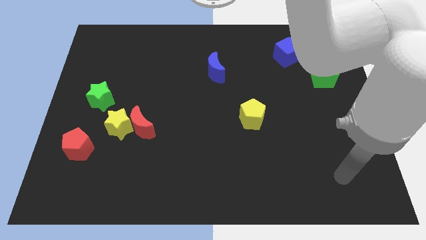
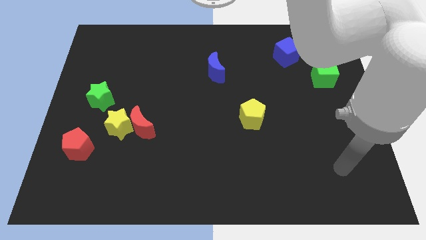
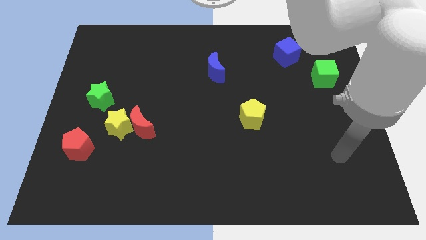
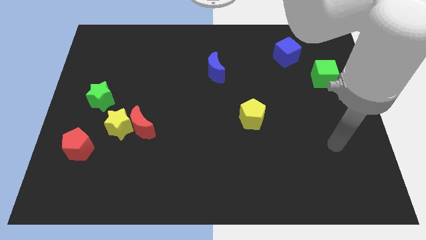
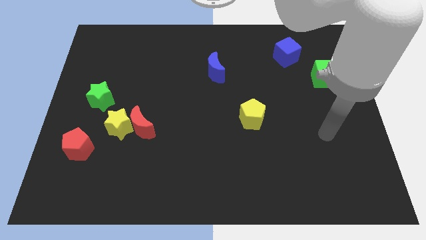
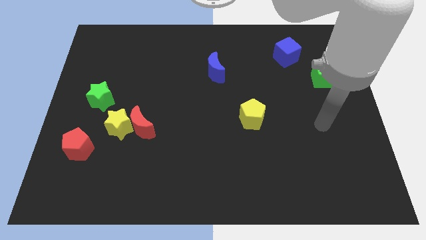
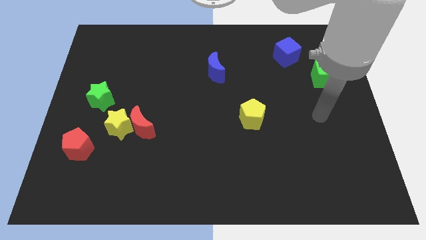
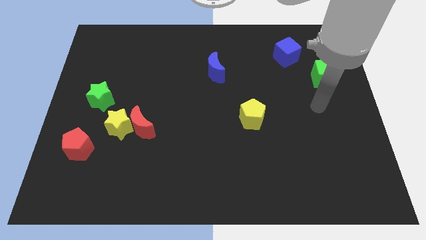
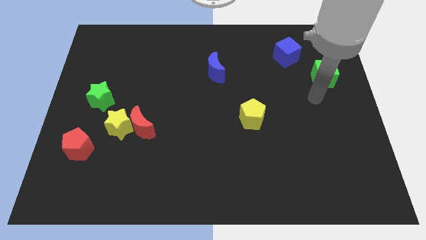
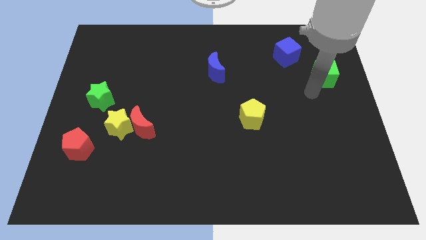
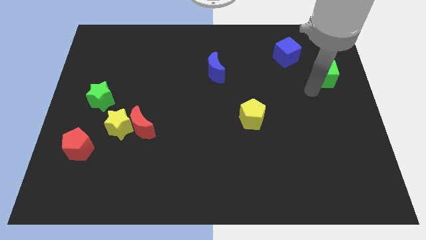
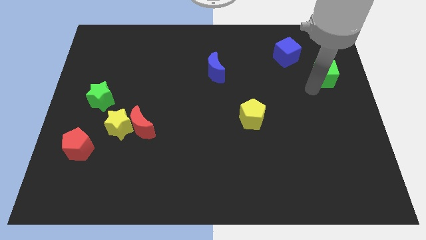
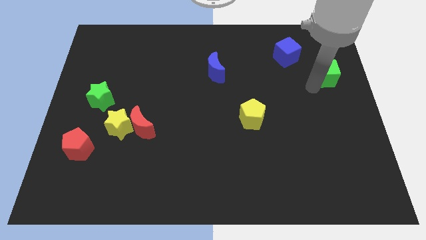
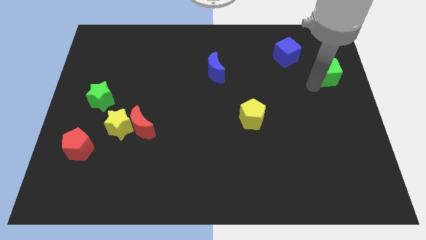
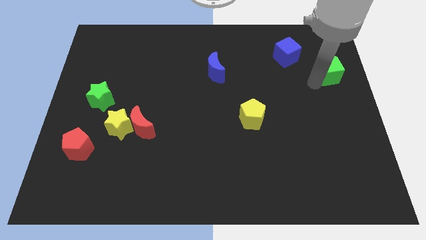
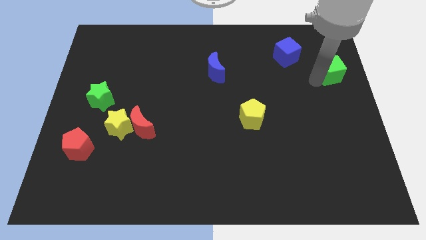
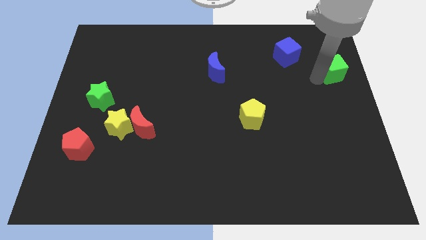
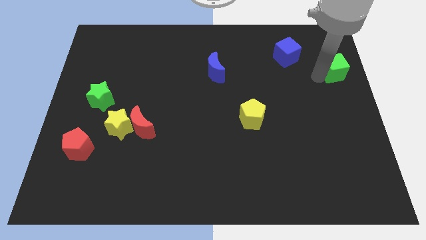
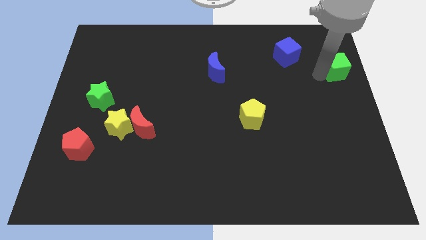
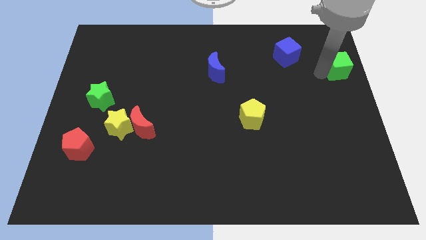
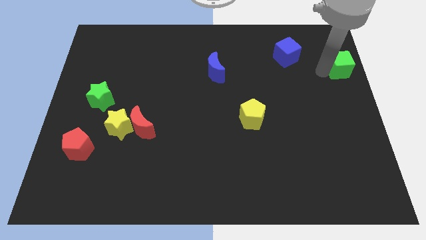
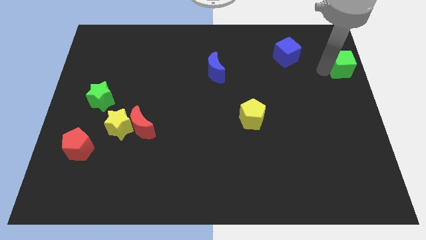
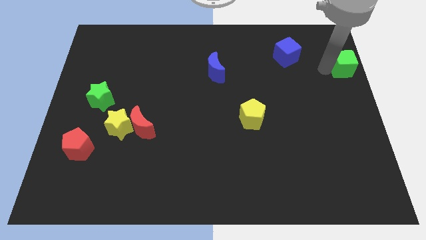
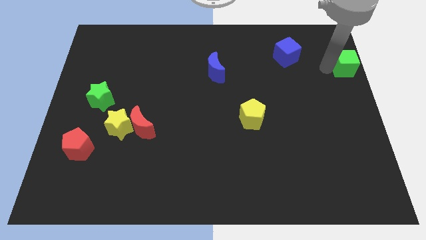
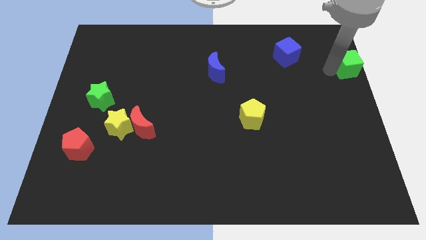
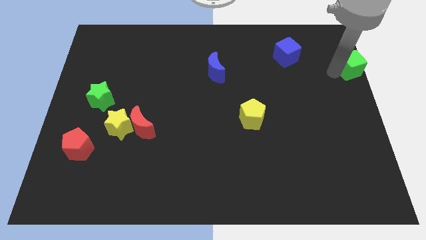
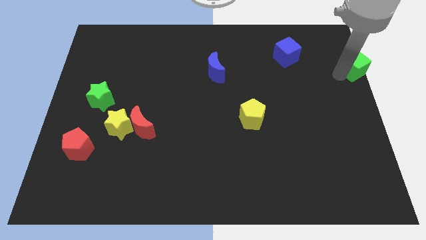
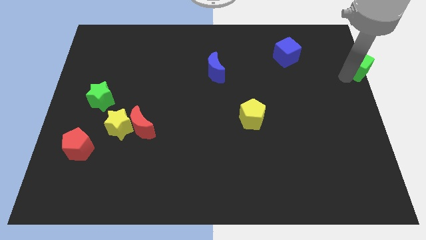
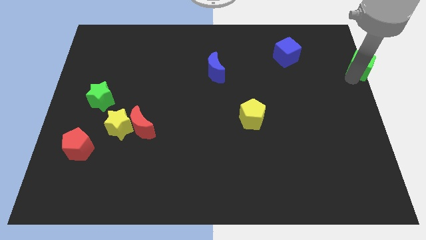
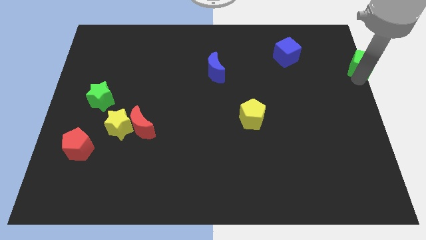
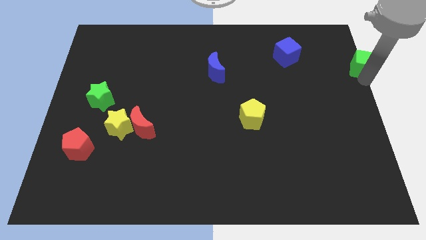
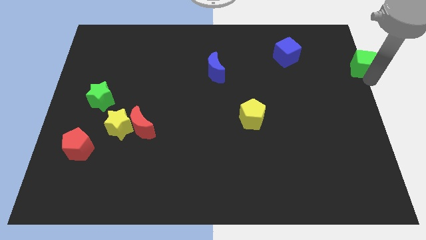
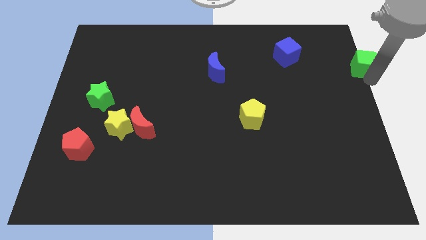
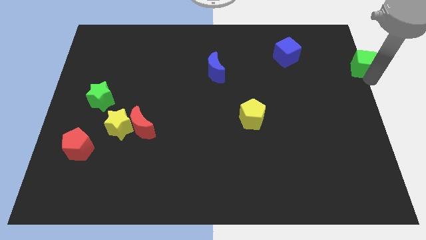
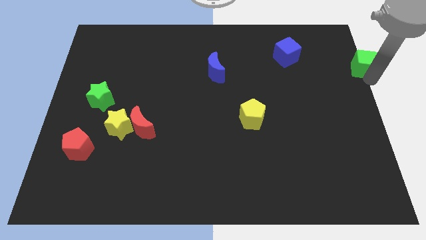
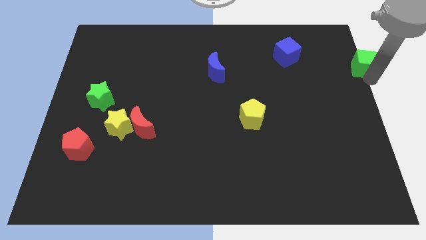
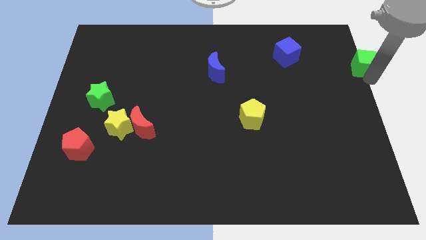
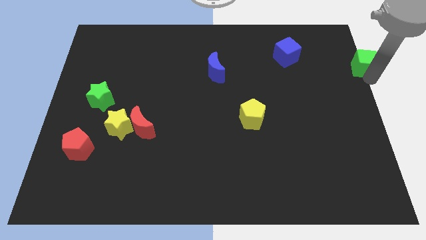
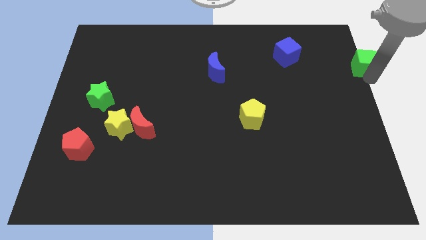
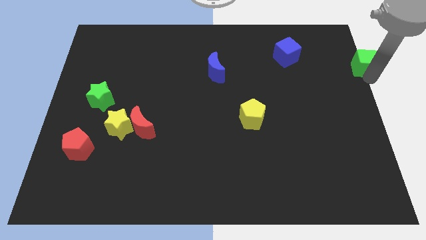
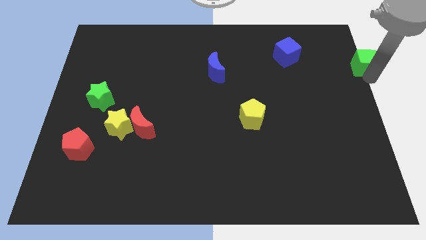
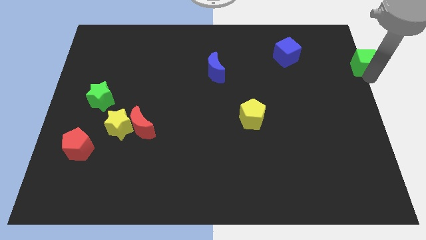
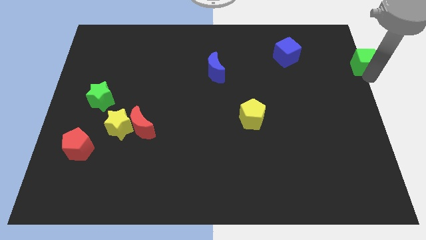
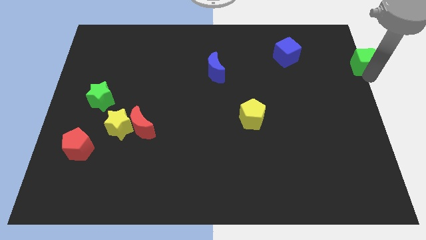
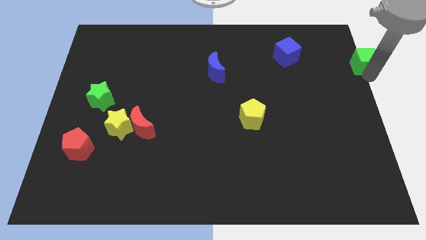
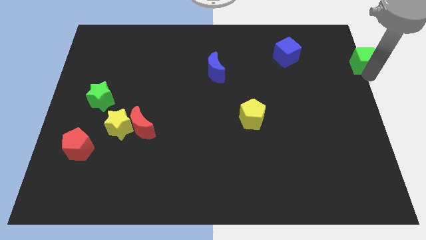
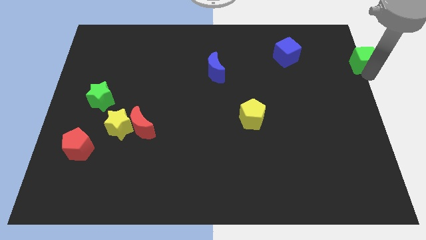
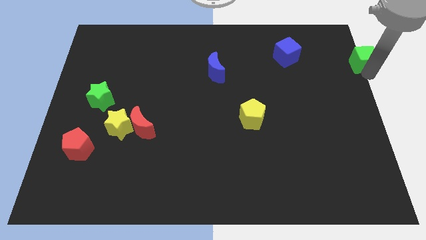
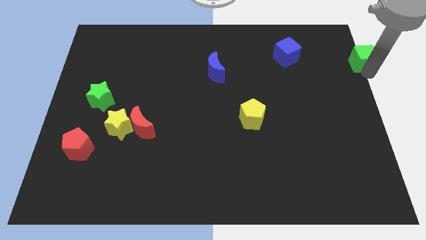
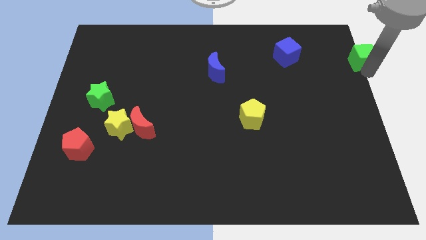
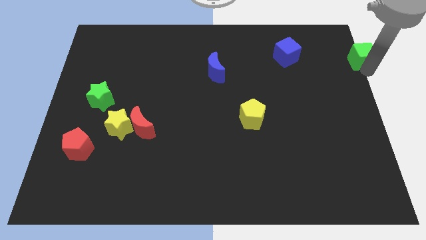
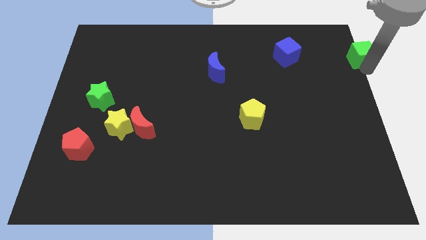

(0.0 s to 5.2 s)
slide the green cube to the top right
